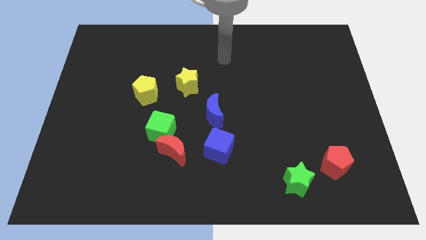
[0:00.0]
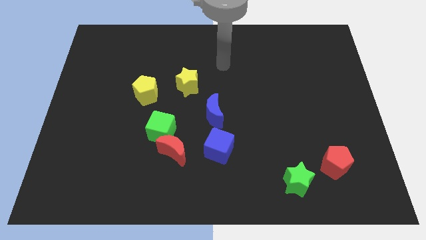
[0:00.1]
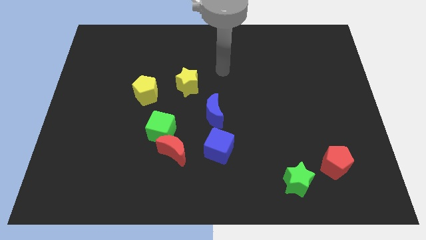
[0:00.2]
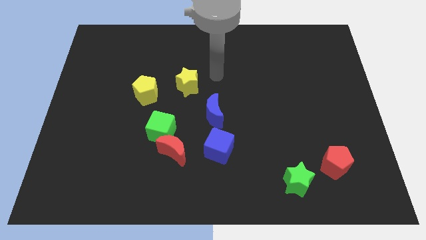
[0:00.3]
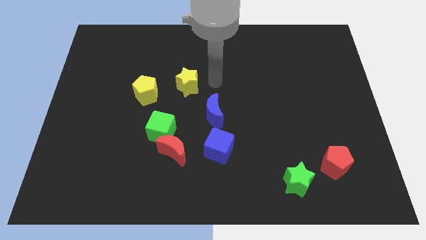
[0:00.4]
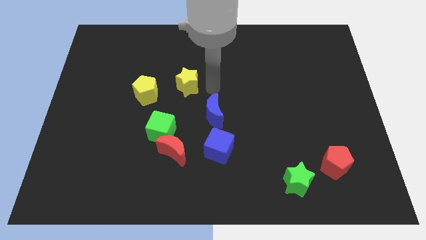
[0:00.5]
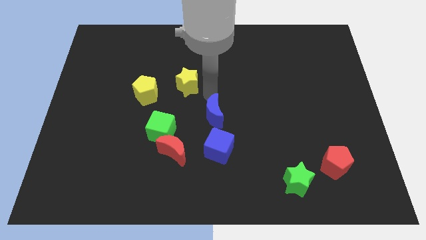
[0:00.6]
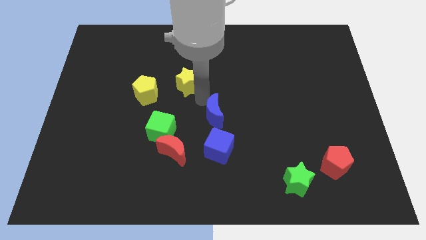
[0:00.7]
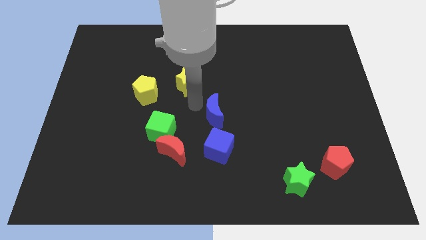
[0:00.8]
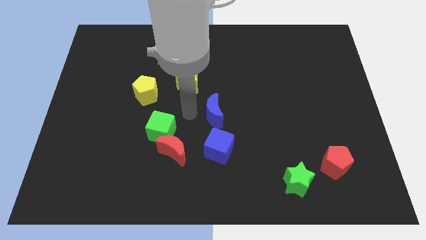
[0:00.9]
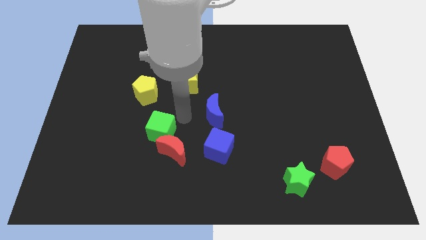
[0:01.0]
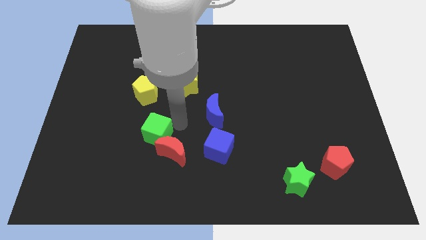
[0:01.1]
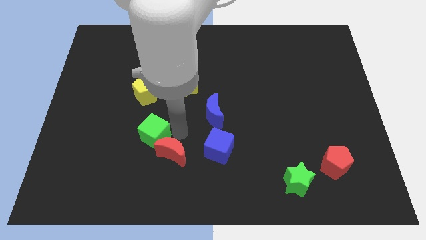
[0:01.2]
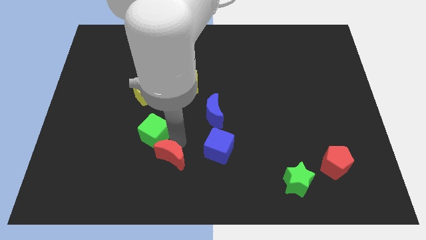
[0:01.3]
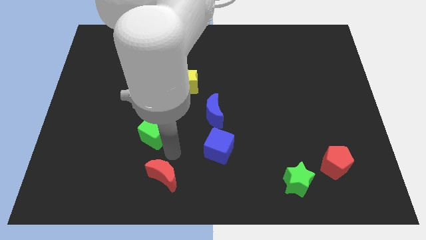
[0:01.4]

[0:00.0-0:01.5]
separate the green cube from the red moon

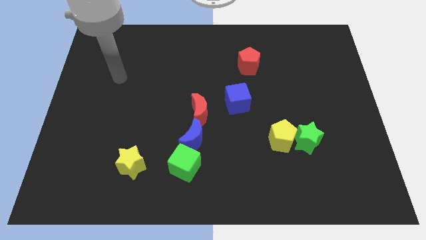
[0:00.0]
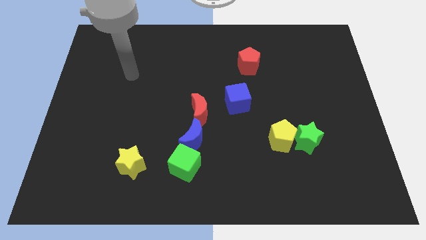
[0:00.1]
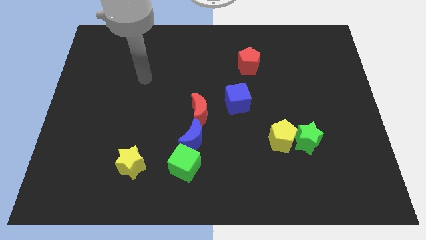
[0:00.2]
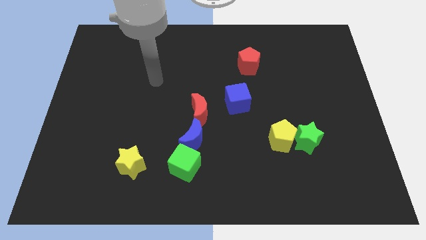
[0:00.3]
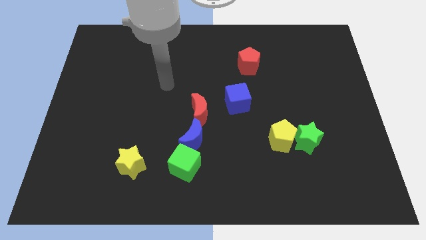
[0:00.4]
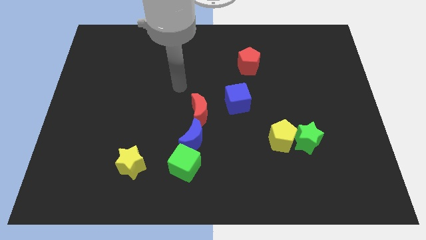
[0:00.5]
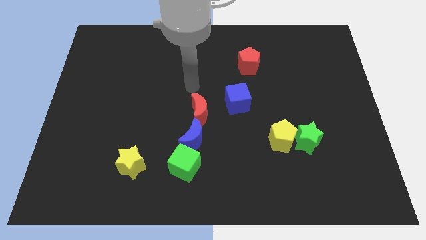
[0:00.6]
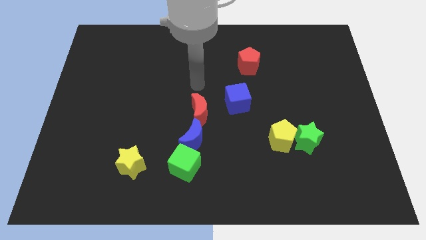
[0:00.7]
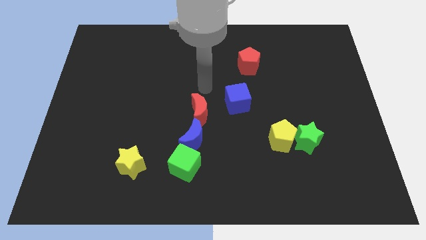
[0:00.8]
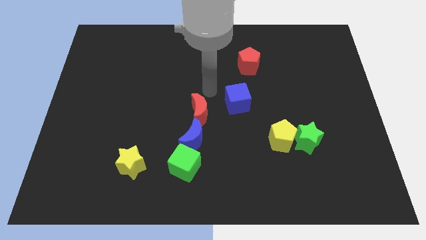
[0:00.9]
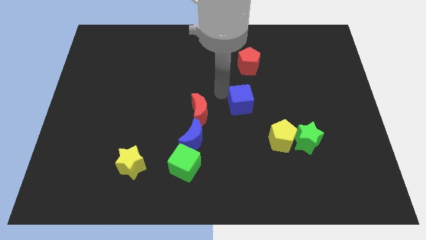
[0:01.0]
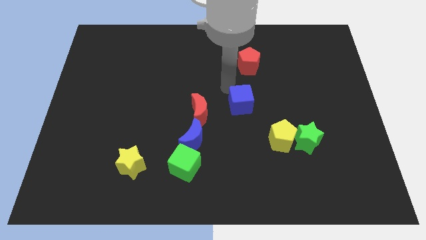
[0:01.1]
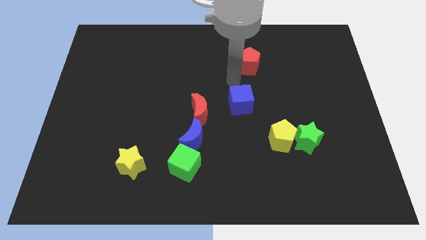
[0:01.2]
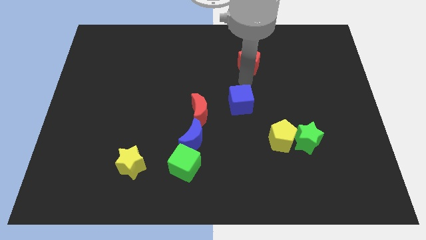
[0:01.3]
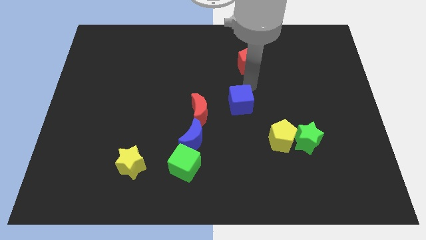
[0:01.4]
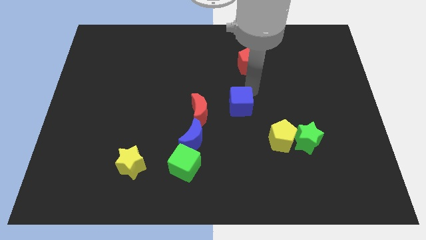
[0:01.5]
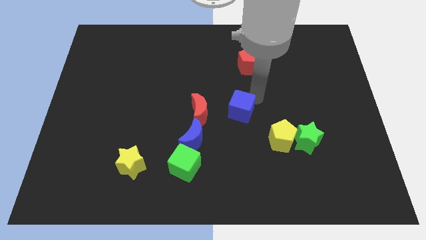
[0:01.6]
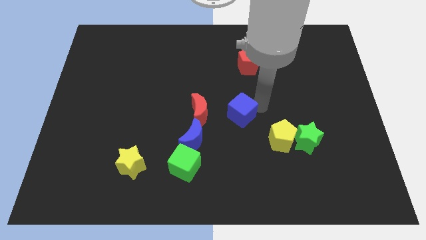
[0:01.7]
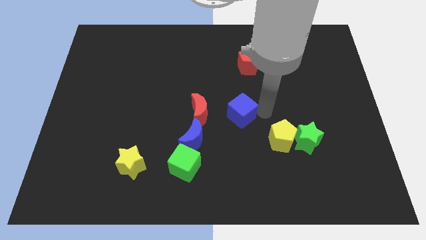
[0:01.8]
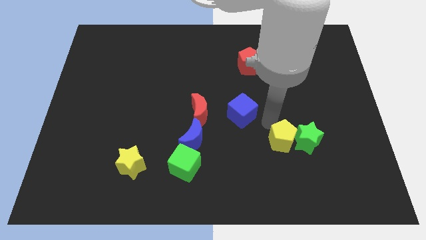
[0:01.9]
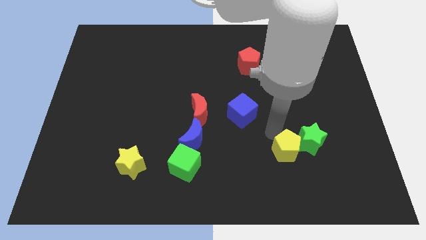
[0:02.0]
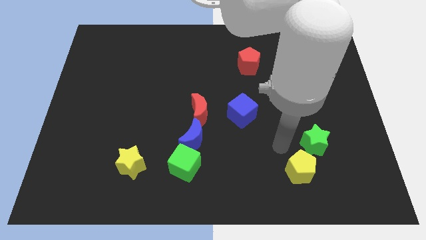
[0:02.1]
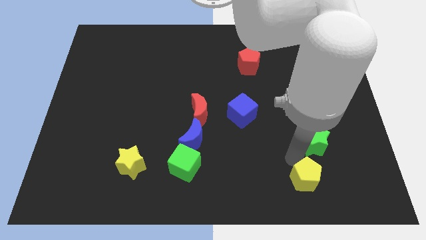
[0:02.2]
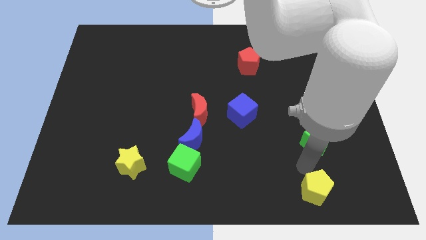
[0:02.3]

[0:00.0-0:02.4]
pull the green star apart from the yellow pentagon

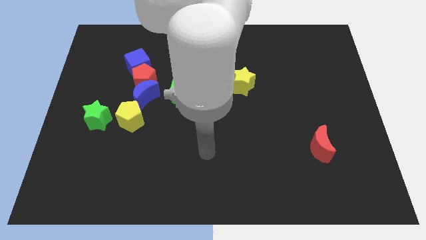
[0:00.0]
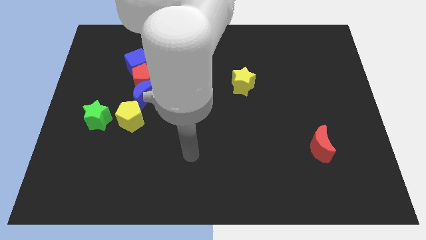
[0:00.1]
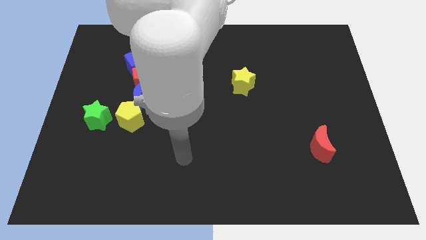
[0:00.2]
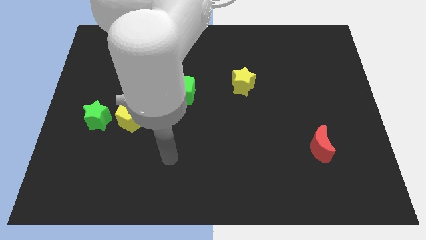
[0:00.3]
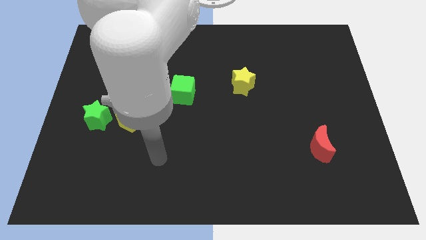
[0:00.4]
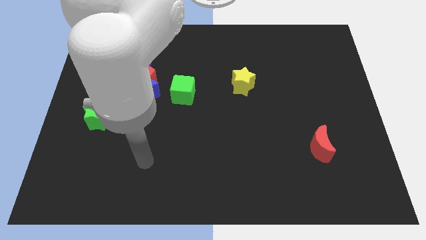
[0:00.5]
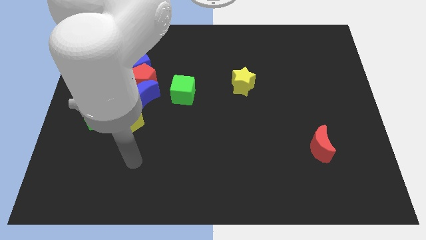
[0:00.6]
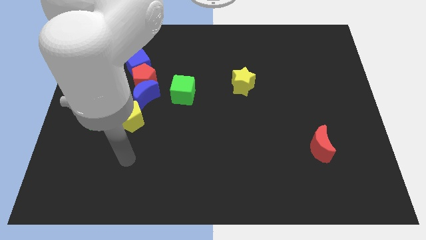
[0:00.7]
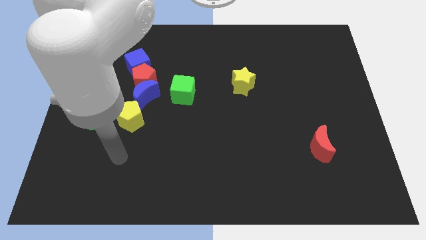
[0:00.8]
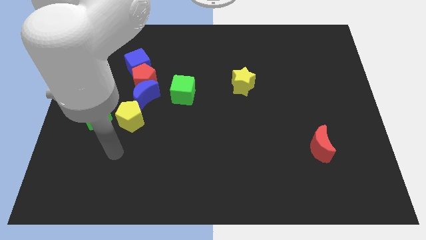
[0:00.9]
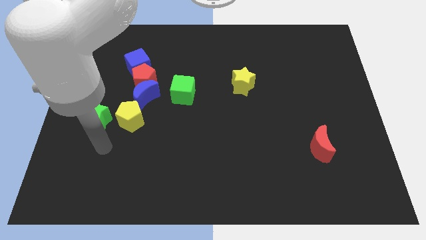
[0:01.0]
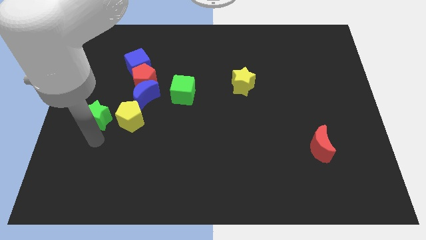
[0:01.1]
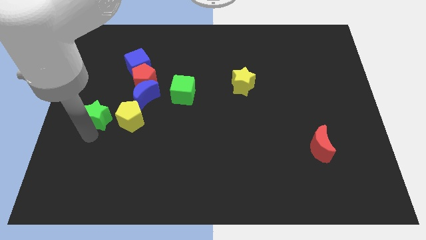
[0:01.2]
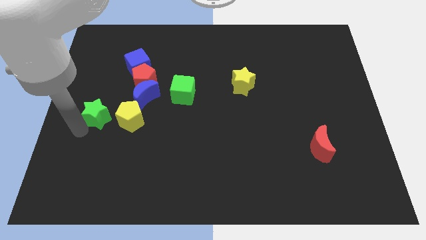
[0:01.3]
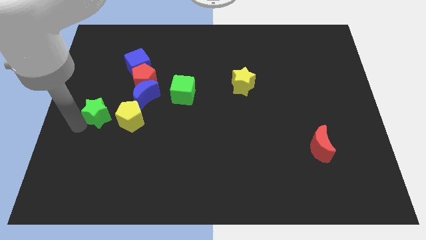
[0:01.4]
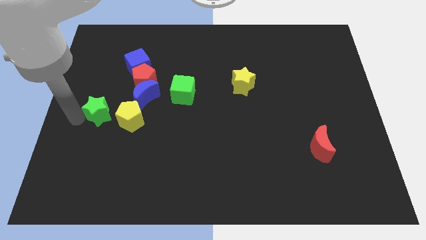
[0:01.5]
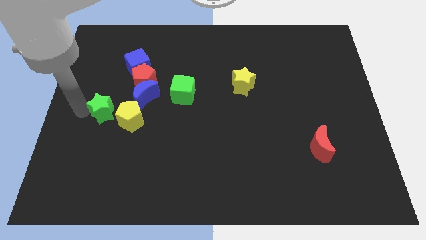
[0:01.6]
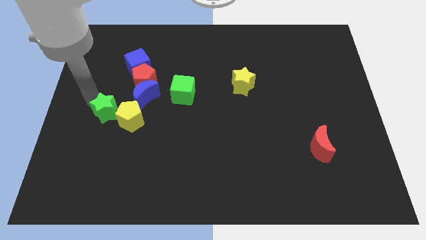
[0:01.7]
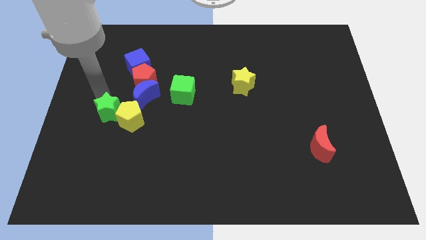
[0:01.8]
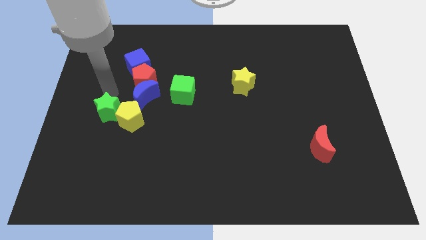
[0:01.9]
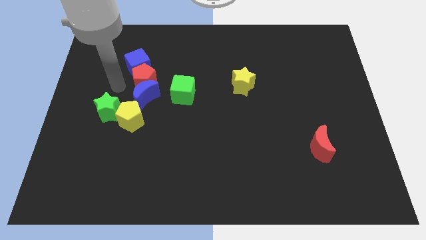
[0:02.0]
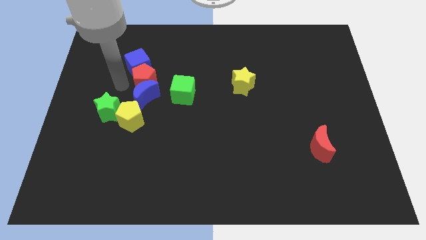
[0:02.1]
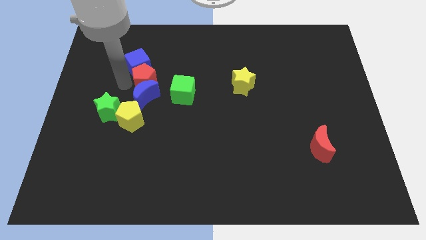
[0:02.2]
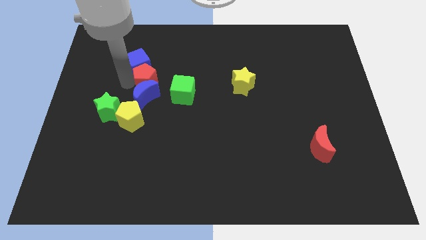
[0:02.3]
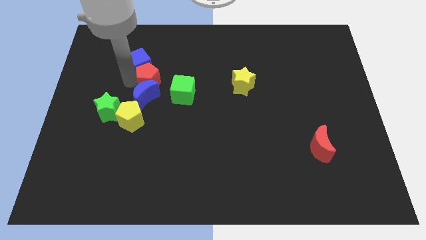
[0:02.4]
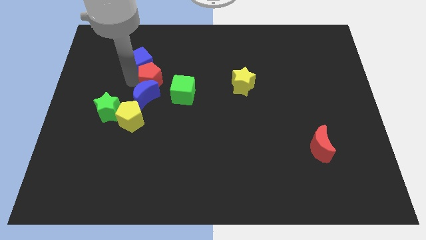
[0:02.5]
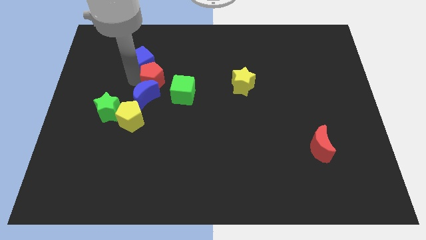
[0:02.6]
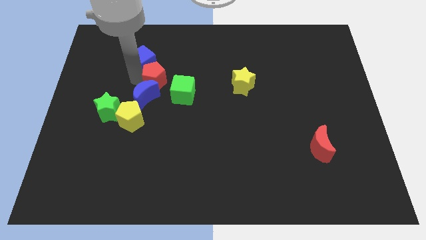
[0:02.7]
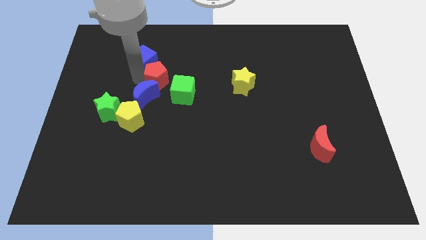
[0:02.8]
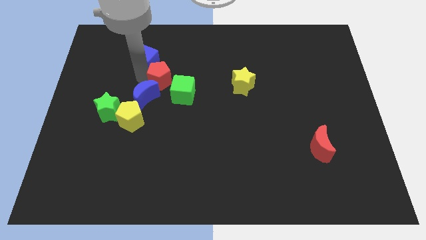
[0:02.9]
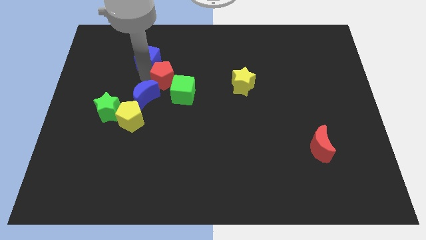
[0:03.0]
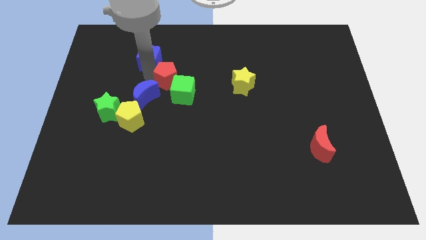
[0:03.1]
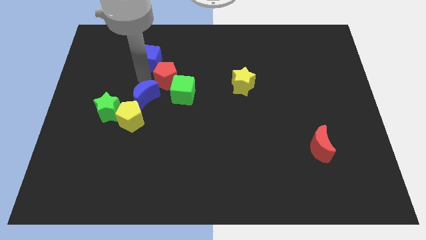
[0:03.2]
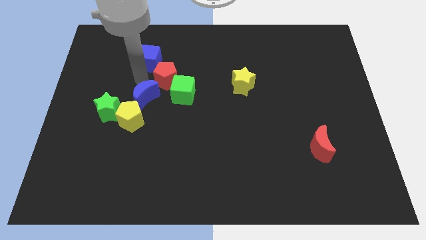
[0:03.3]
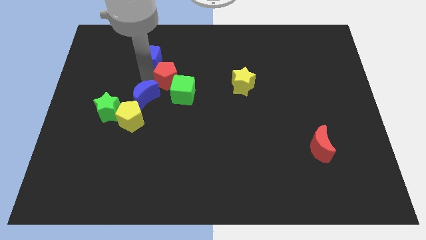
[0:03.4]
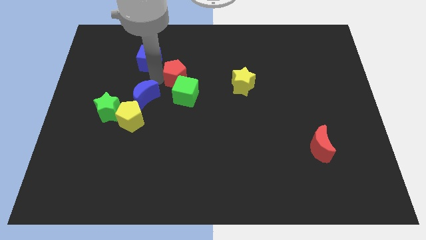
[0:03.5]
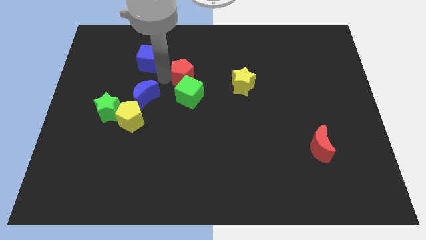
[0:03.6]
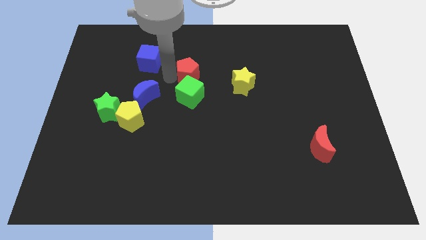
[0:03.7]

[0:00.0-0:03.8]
move the red pentagon away from the blue moon and blue cube

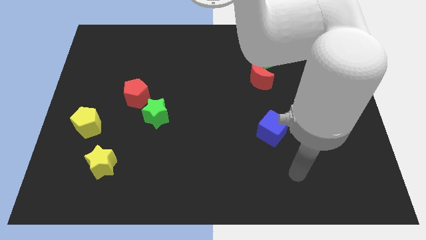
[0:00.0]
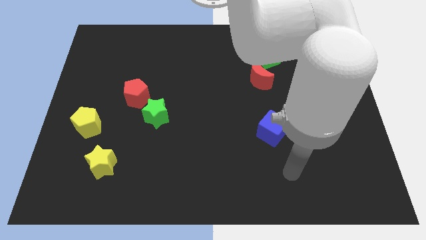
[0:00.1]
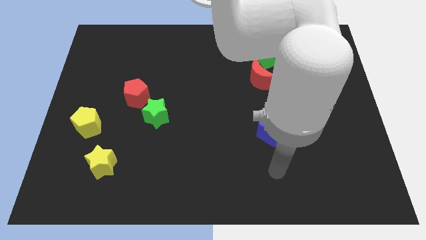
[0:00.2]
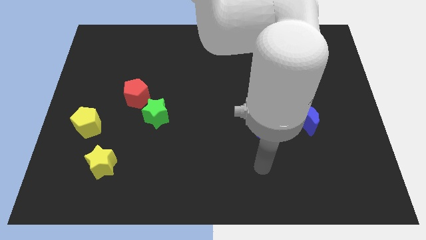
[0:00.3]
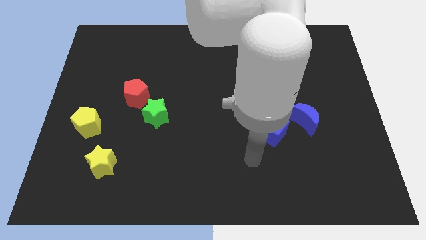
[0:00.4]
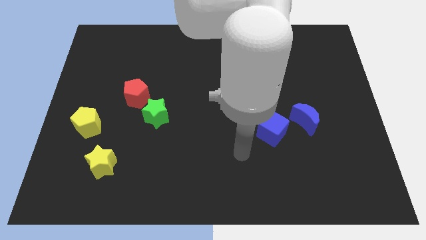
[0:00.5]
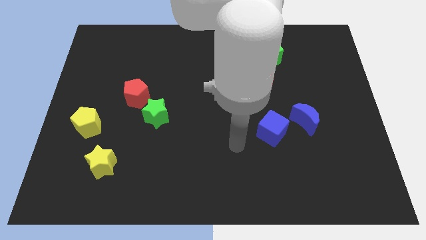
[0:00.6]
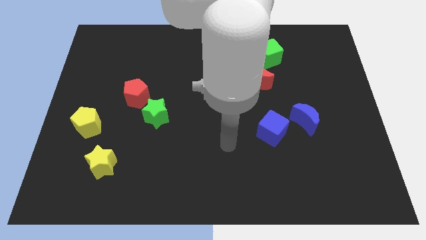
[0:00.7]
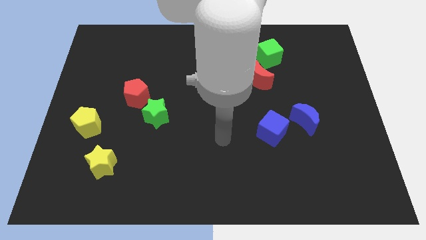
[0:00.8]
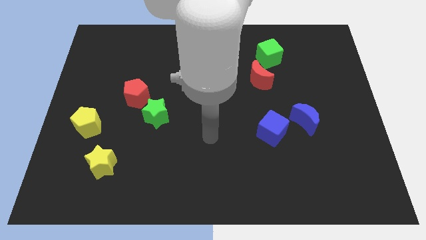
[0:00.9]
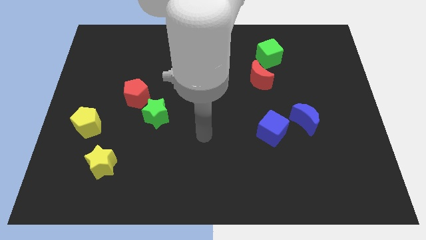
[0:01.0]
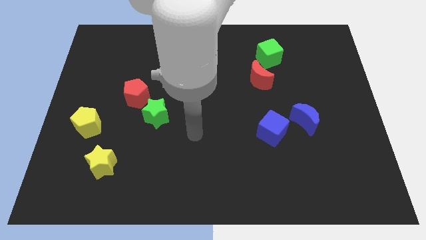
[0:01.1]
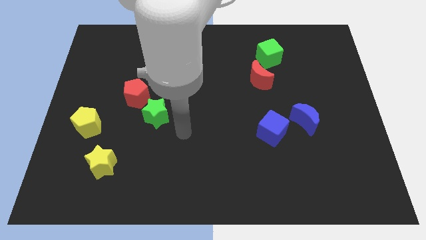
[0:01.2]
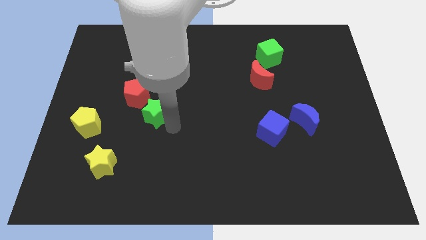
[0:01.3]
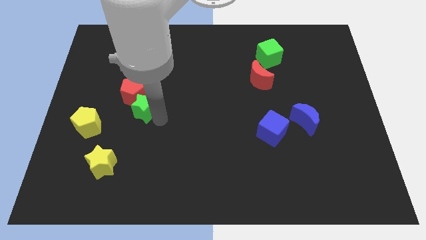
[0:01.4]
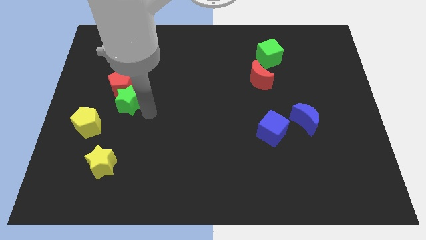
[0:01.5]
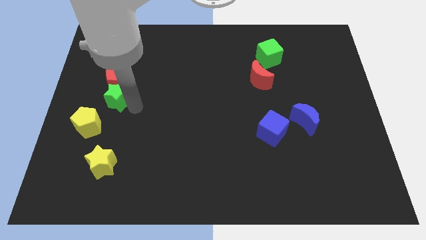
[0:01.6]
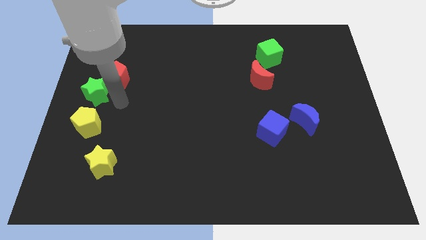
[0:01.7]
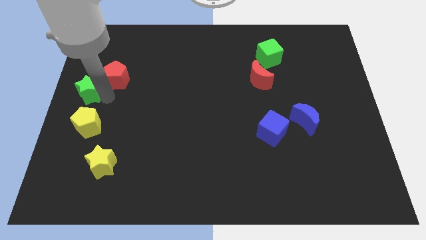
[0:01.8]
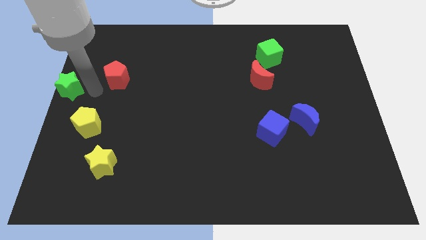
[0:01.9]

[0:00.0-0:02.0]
move the red pentagon away from the green star
